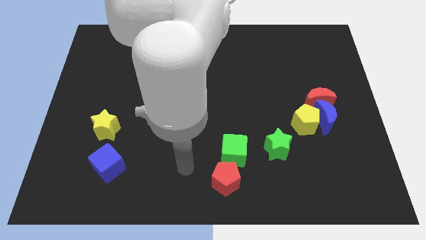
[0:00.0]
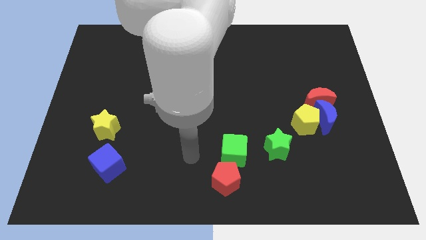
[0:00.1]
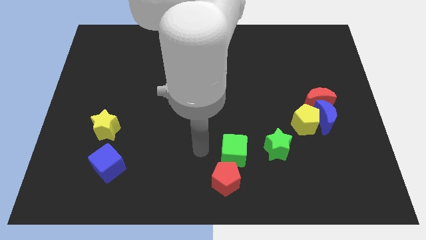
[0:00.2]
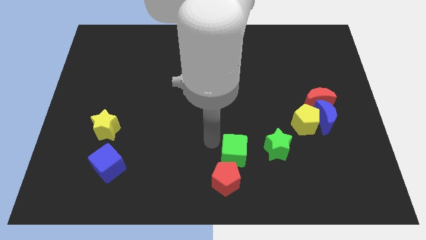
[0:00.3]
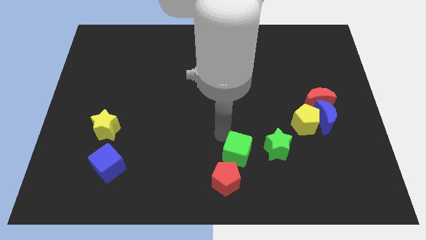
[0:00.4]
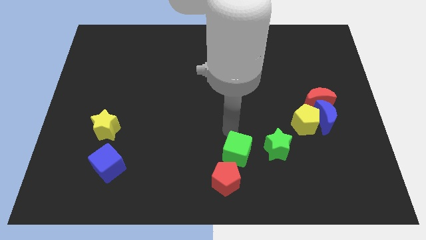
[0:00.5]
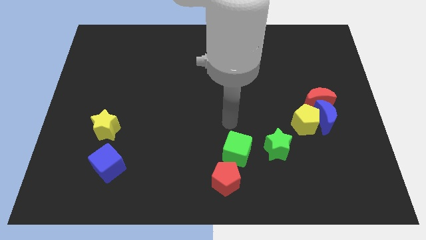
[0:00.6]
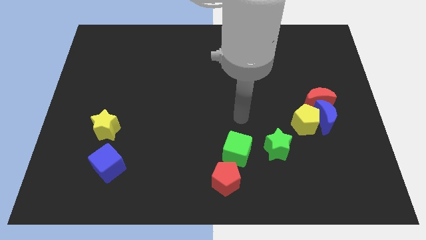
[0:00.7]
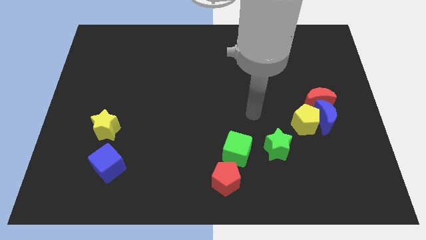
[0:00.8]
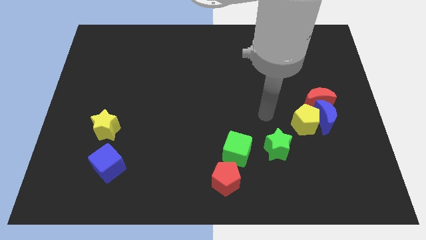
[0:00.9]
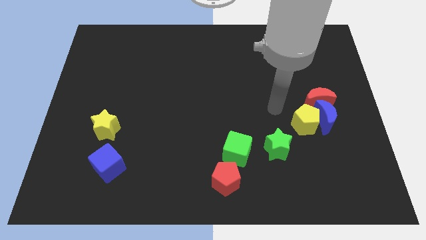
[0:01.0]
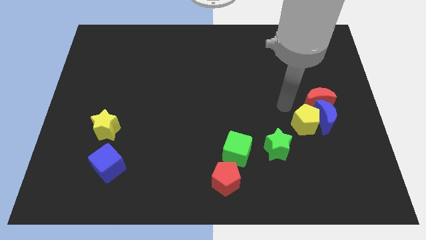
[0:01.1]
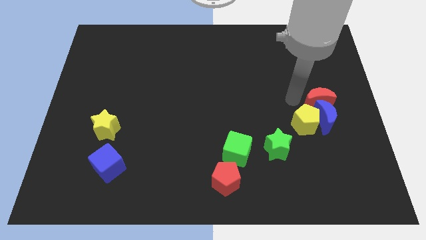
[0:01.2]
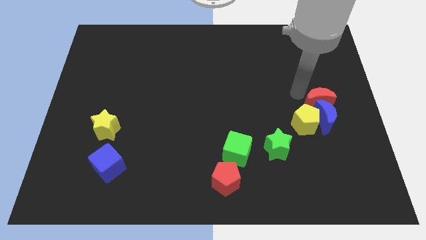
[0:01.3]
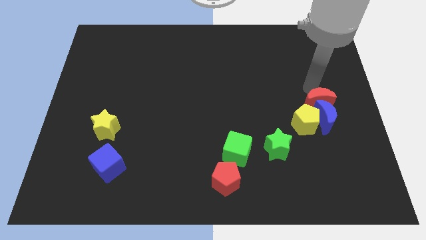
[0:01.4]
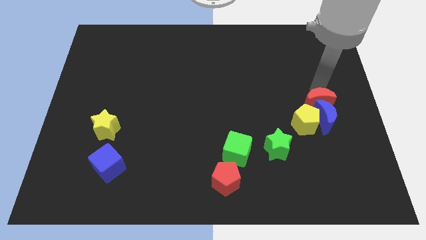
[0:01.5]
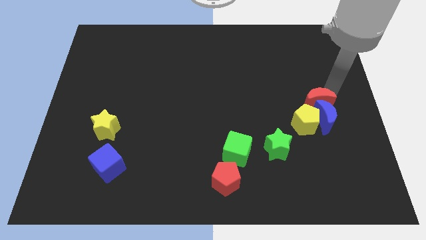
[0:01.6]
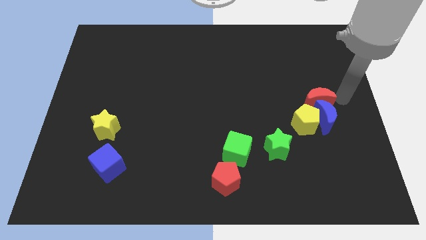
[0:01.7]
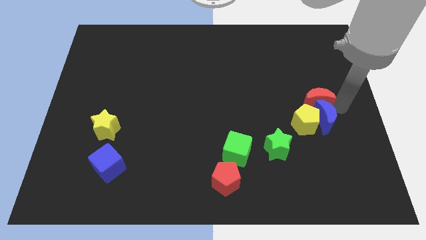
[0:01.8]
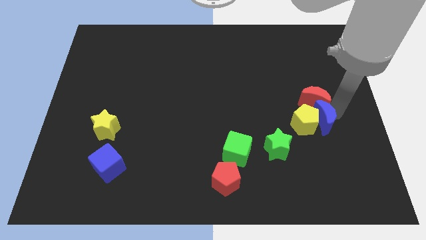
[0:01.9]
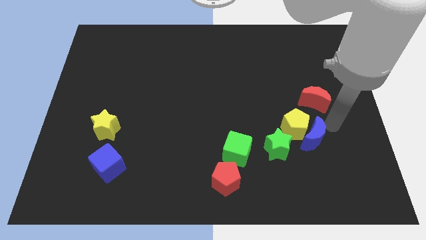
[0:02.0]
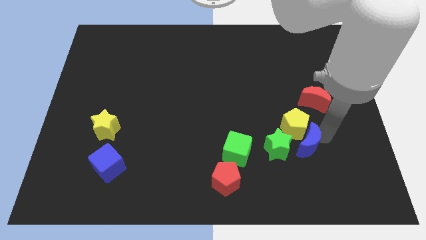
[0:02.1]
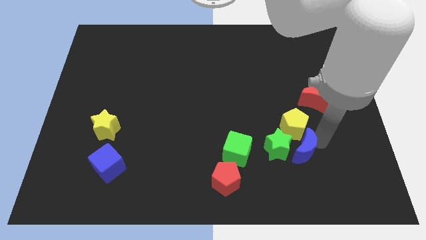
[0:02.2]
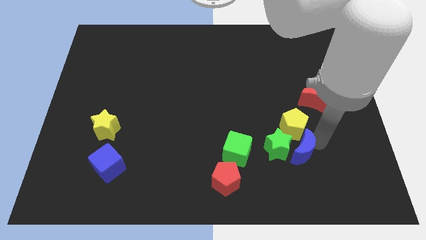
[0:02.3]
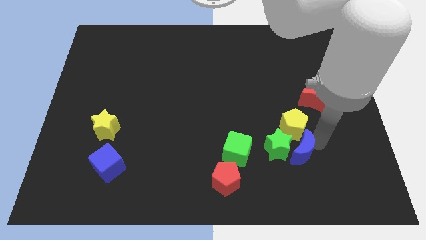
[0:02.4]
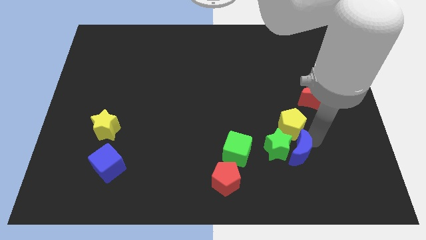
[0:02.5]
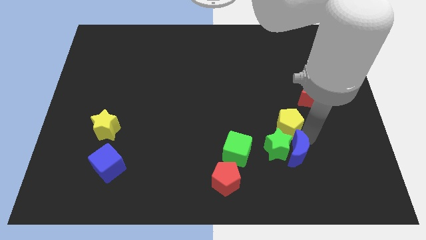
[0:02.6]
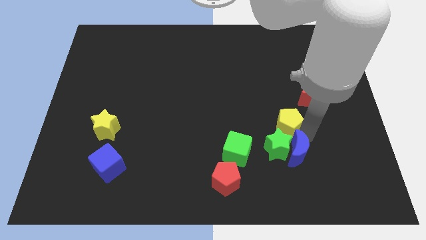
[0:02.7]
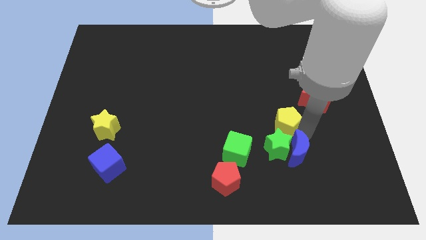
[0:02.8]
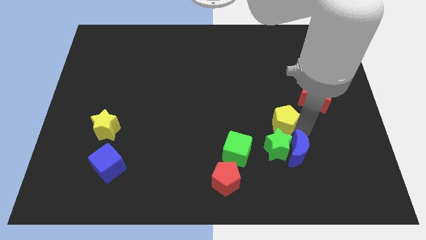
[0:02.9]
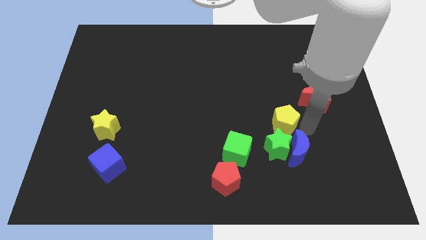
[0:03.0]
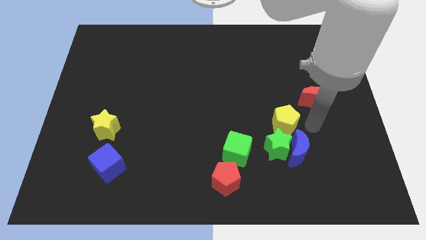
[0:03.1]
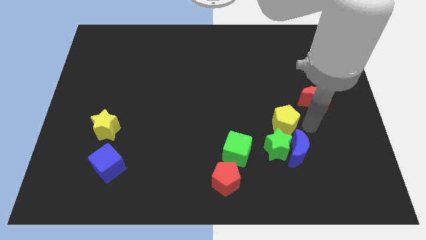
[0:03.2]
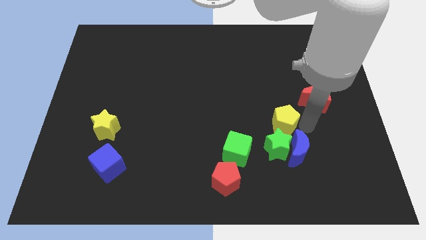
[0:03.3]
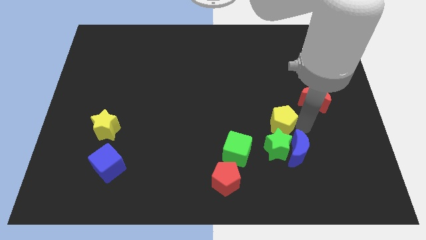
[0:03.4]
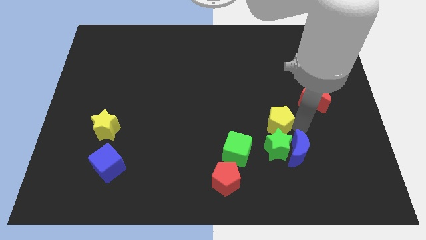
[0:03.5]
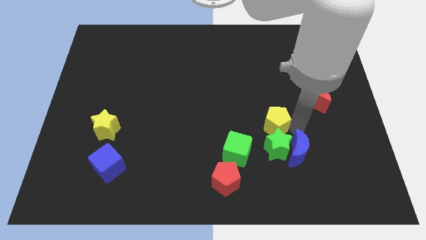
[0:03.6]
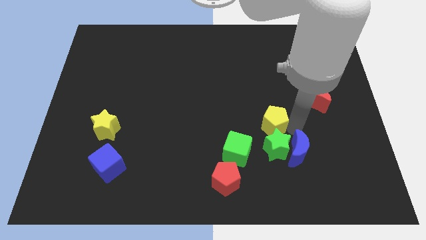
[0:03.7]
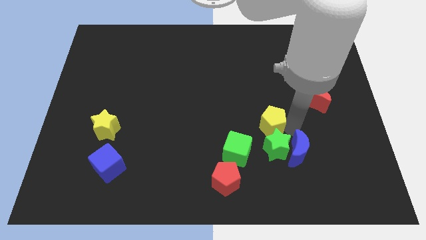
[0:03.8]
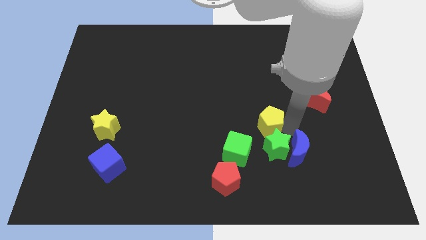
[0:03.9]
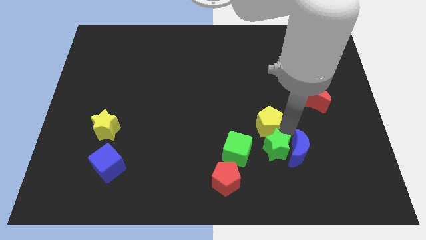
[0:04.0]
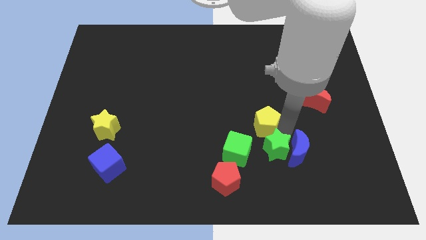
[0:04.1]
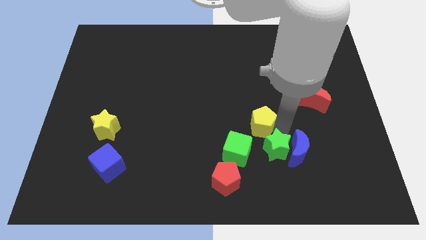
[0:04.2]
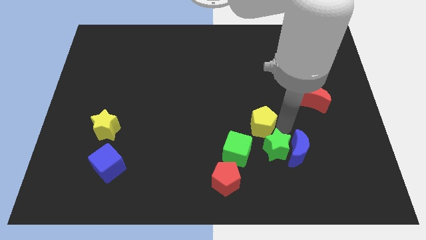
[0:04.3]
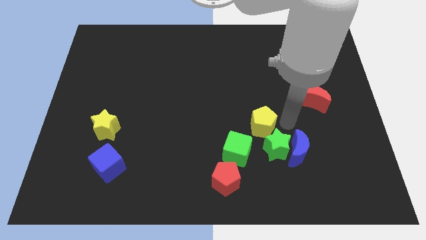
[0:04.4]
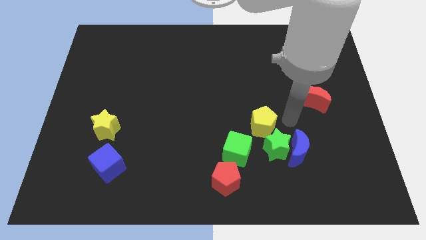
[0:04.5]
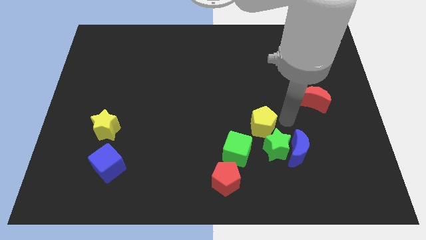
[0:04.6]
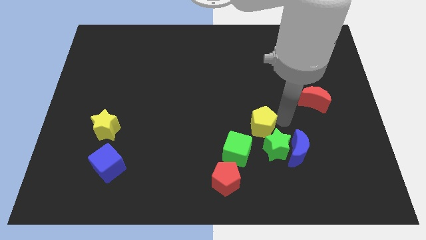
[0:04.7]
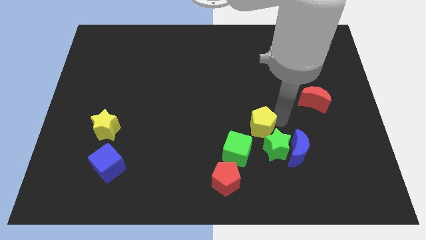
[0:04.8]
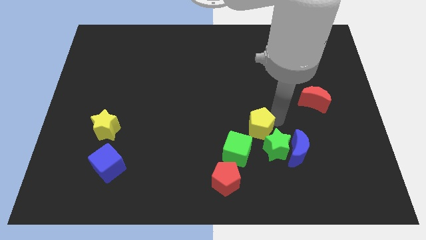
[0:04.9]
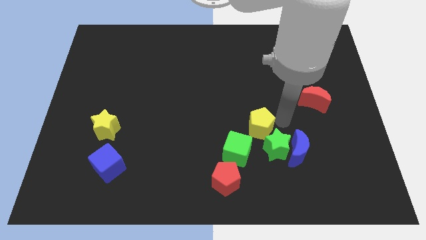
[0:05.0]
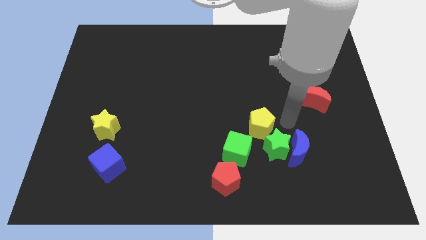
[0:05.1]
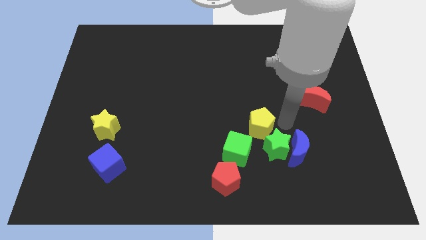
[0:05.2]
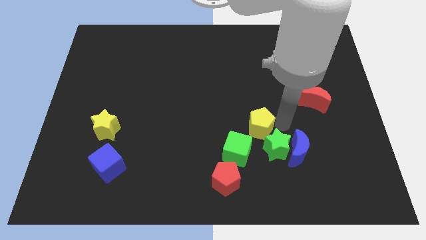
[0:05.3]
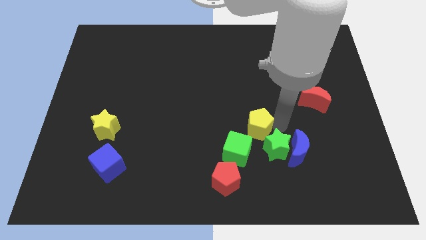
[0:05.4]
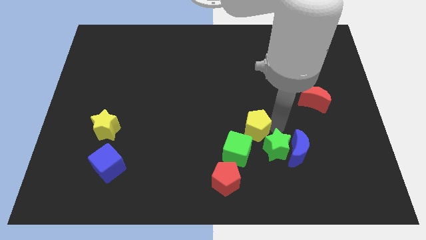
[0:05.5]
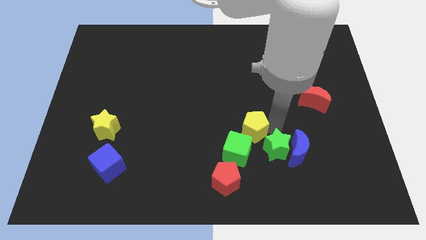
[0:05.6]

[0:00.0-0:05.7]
push the yellow pentagon just left of the green star

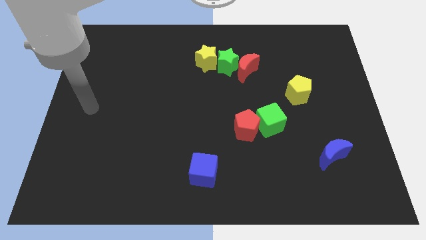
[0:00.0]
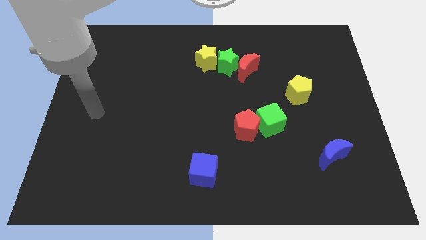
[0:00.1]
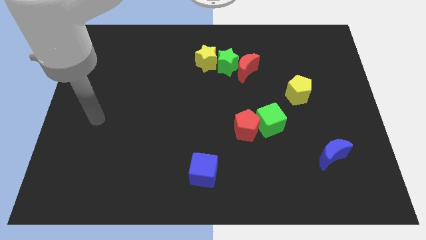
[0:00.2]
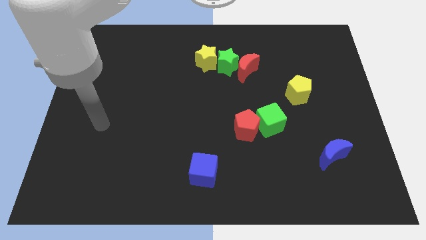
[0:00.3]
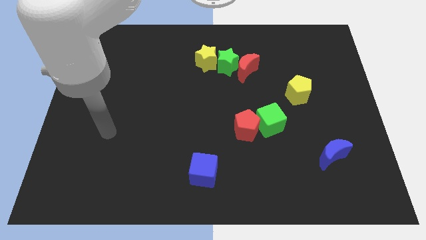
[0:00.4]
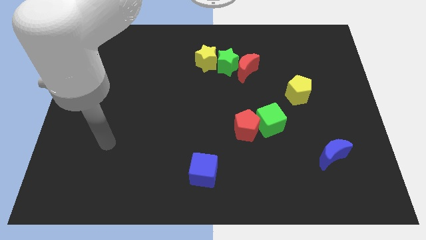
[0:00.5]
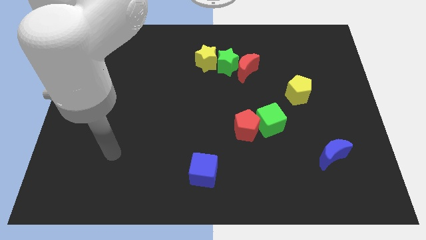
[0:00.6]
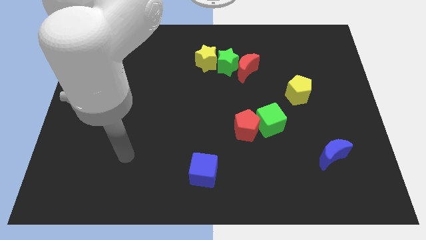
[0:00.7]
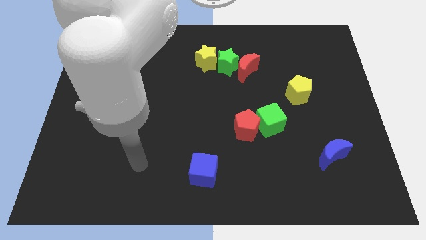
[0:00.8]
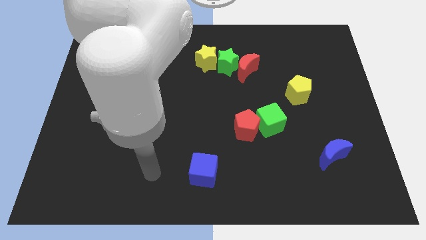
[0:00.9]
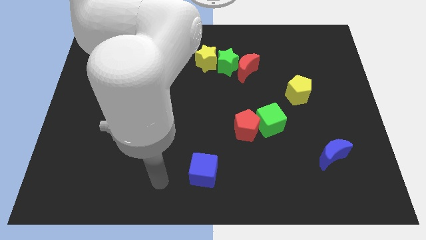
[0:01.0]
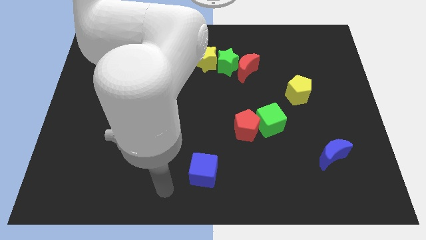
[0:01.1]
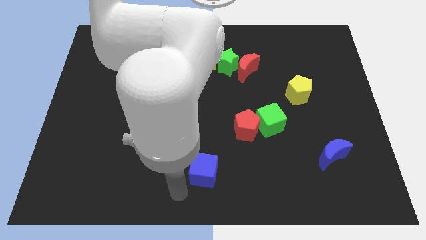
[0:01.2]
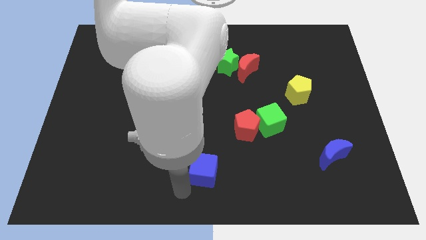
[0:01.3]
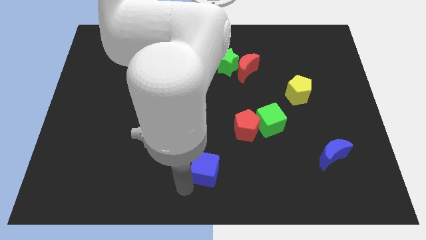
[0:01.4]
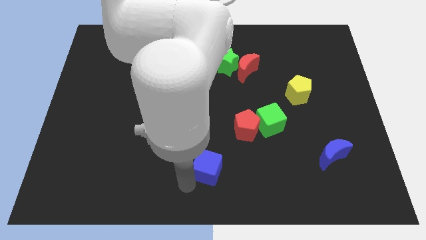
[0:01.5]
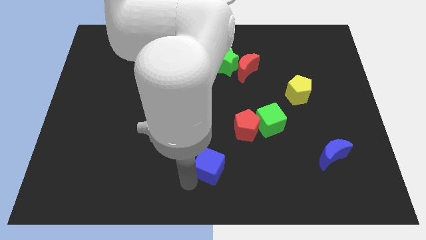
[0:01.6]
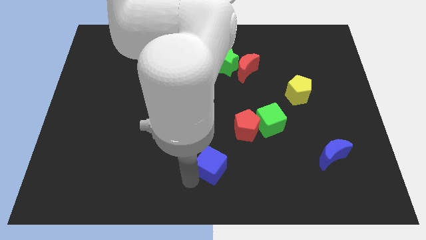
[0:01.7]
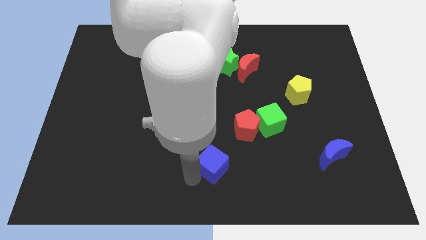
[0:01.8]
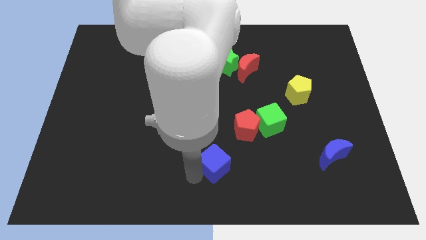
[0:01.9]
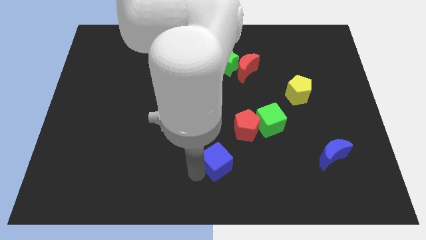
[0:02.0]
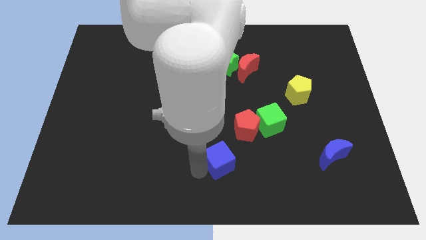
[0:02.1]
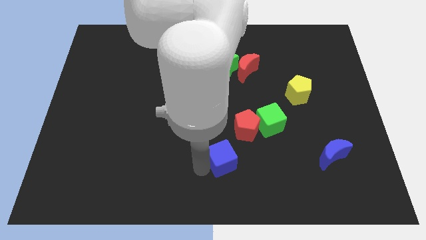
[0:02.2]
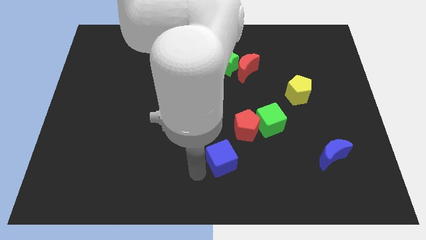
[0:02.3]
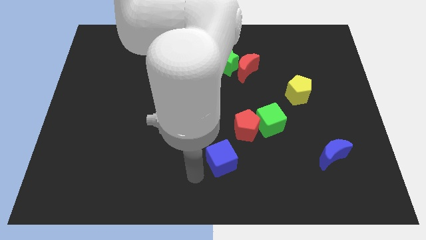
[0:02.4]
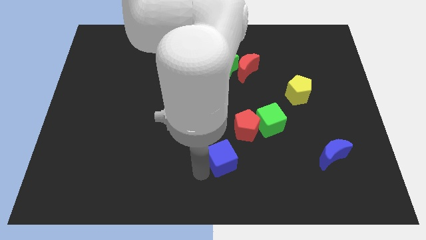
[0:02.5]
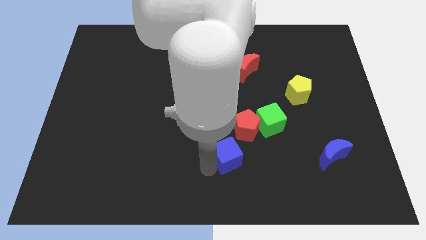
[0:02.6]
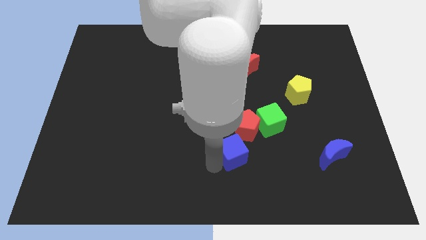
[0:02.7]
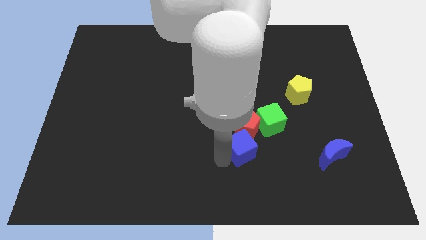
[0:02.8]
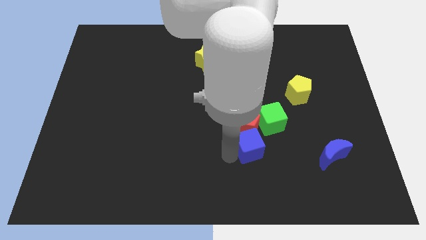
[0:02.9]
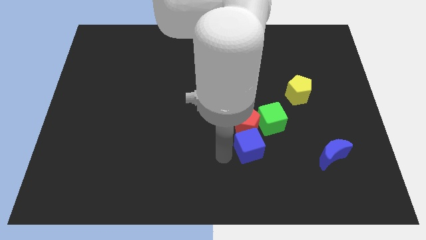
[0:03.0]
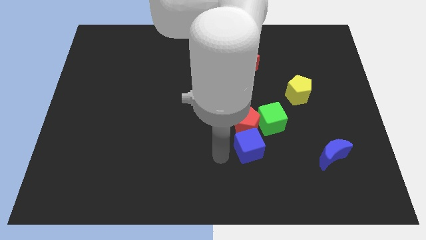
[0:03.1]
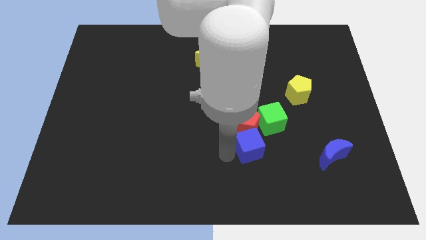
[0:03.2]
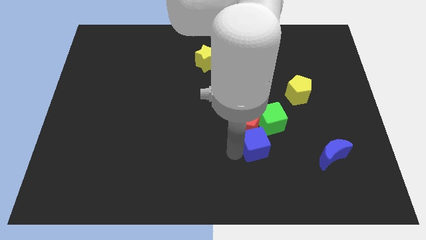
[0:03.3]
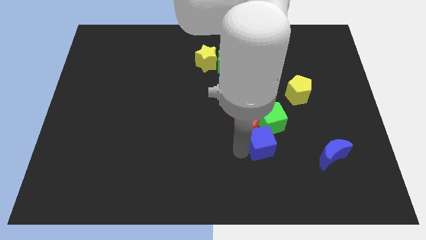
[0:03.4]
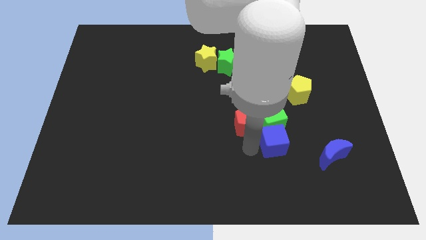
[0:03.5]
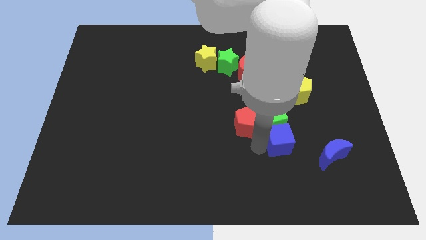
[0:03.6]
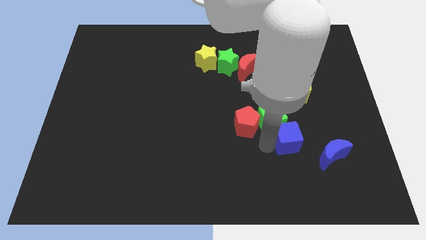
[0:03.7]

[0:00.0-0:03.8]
slide the blue cube to the top left of the blue moon
